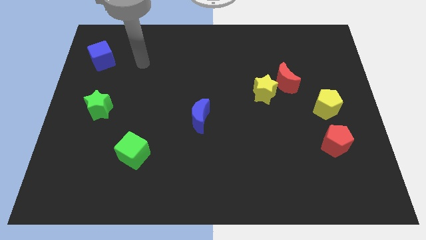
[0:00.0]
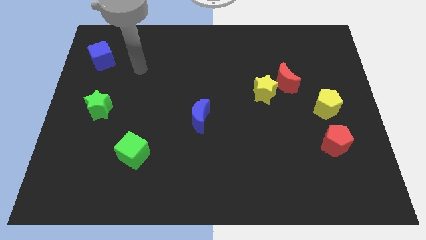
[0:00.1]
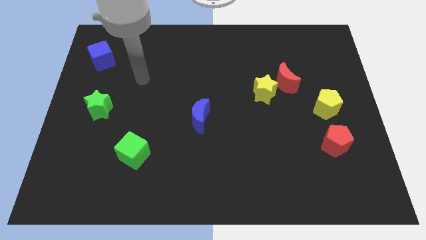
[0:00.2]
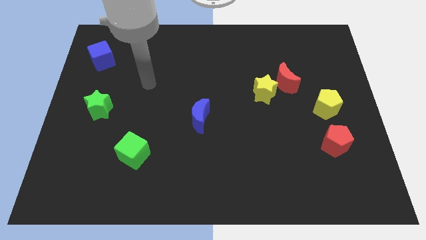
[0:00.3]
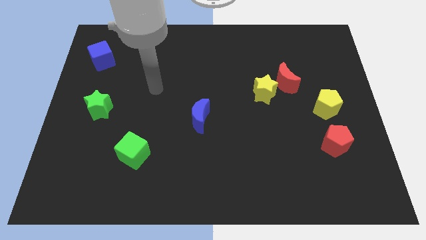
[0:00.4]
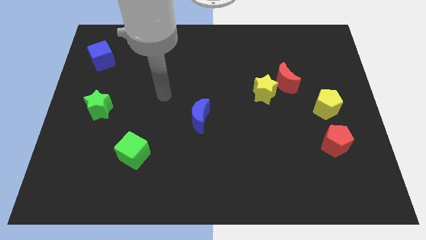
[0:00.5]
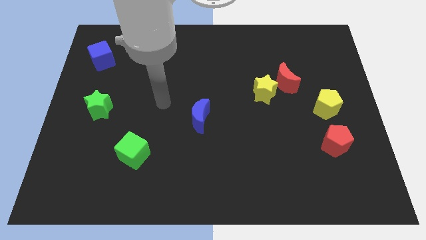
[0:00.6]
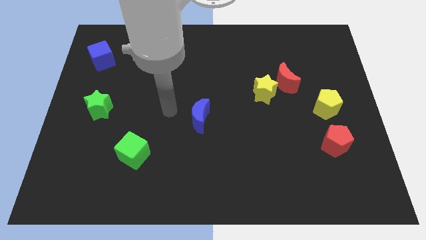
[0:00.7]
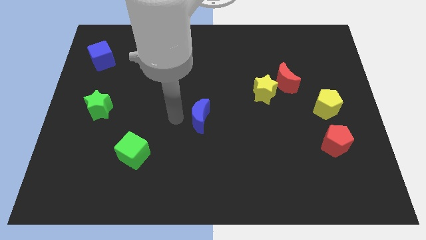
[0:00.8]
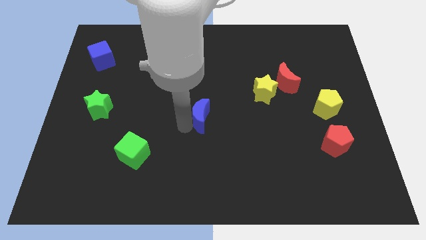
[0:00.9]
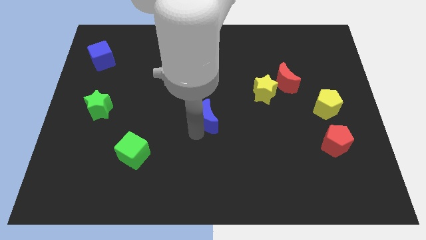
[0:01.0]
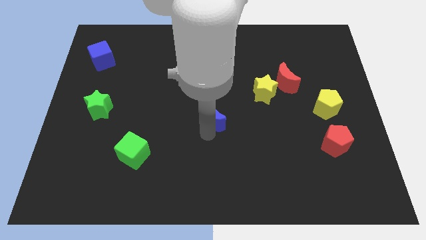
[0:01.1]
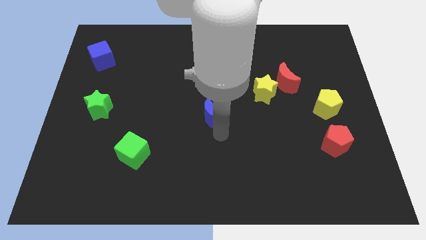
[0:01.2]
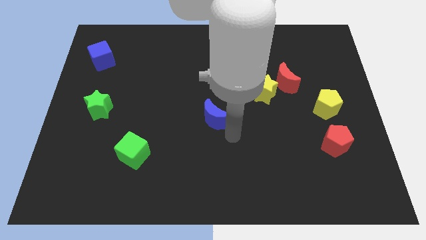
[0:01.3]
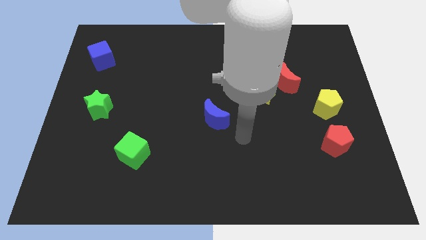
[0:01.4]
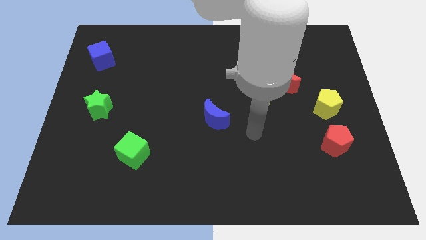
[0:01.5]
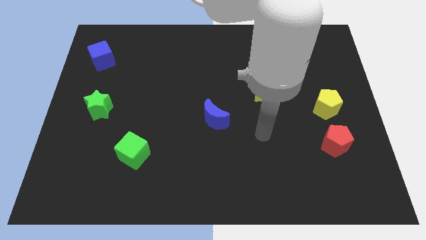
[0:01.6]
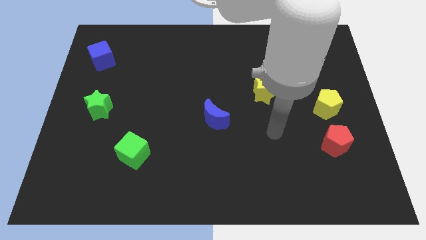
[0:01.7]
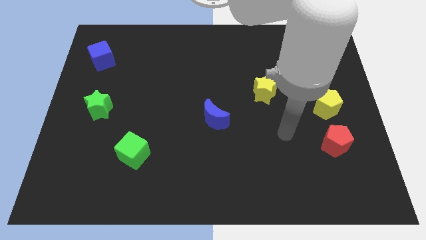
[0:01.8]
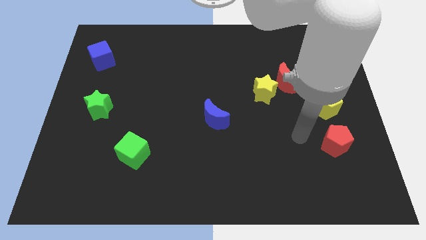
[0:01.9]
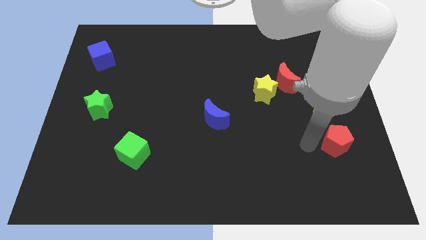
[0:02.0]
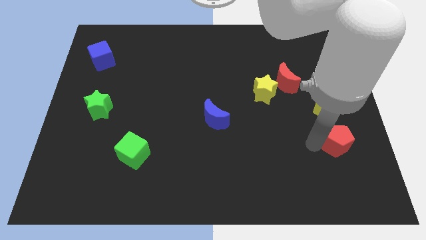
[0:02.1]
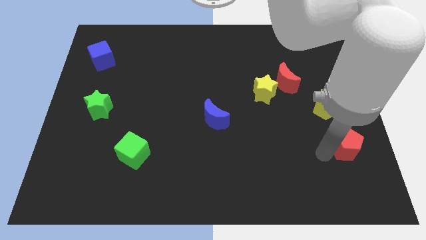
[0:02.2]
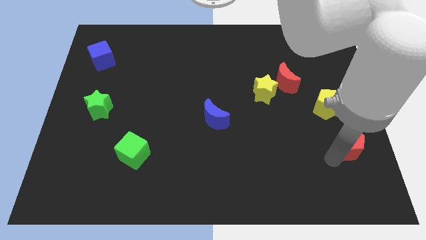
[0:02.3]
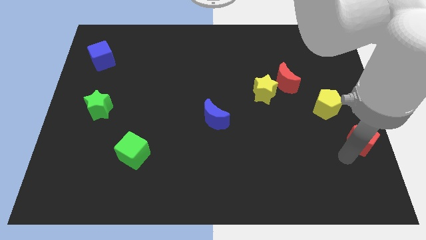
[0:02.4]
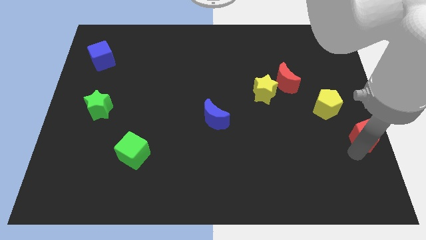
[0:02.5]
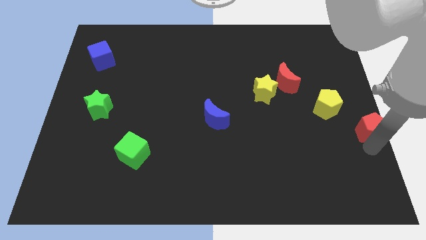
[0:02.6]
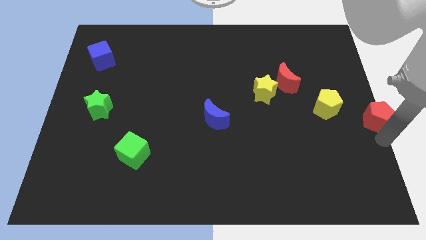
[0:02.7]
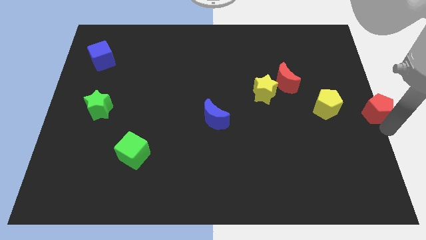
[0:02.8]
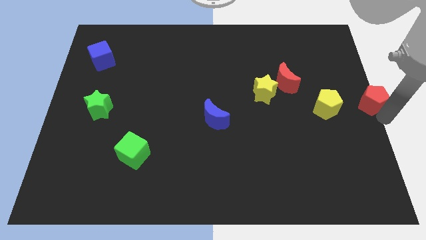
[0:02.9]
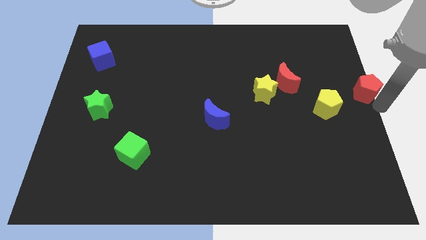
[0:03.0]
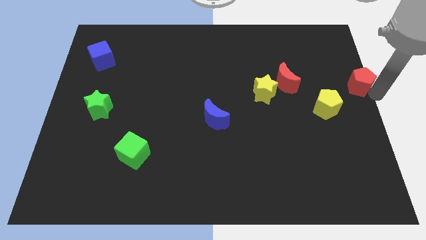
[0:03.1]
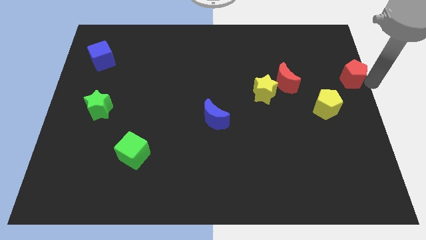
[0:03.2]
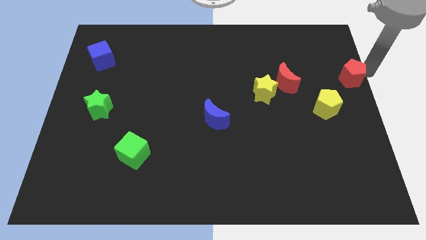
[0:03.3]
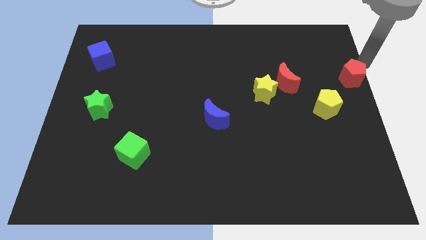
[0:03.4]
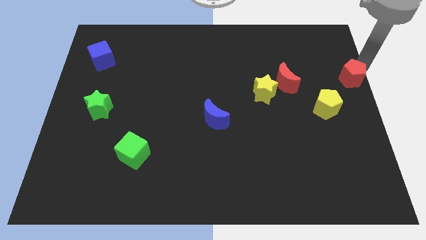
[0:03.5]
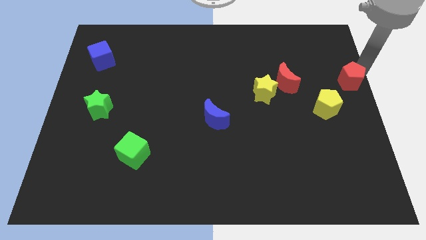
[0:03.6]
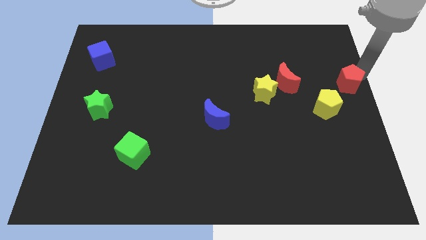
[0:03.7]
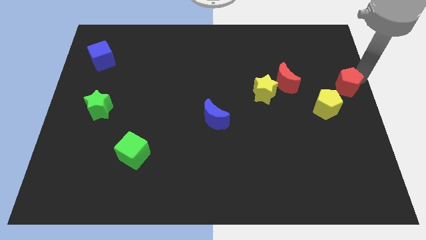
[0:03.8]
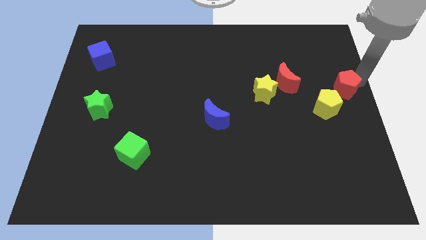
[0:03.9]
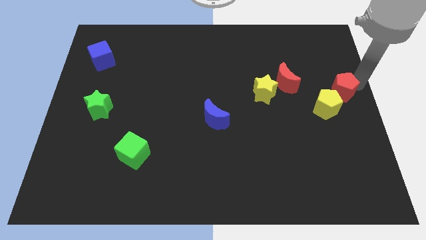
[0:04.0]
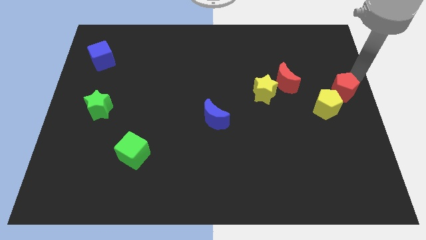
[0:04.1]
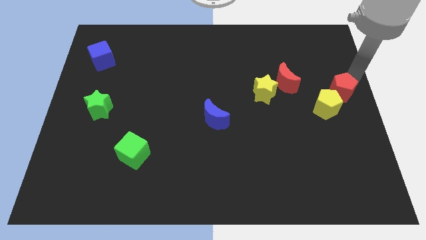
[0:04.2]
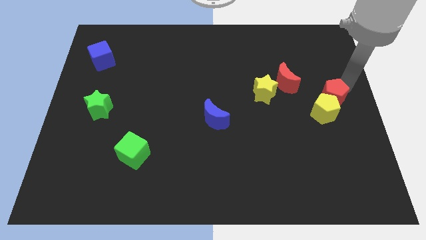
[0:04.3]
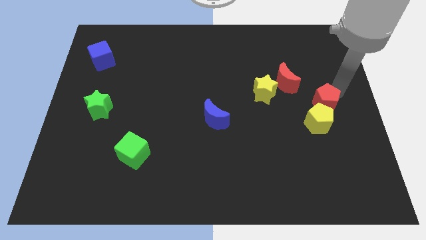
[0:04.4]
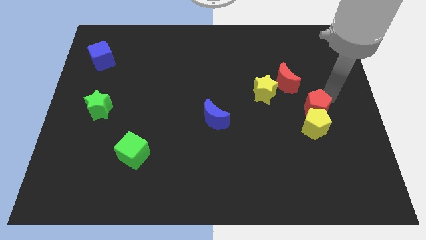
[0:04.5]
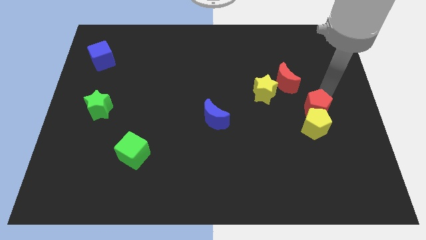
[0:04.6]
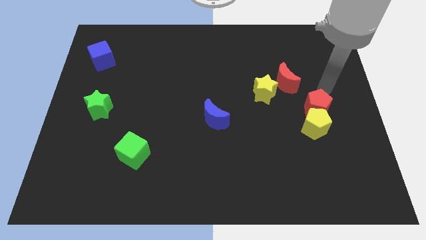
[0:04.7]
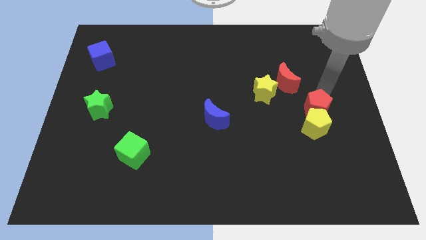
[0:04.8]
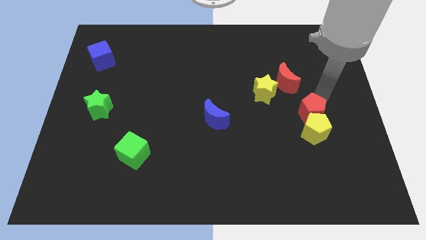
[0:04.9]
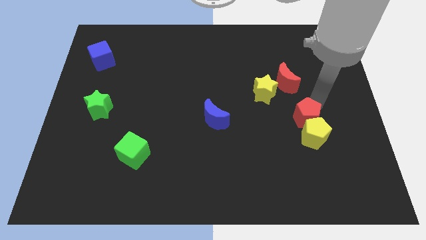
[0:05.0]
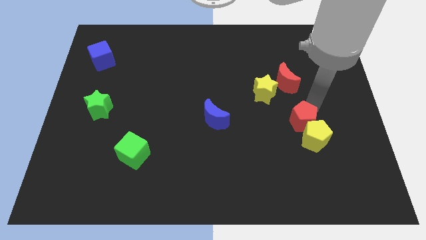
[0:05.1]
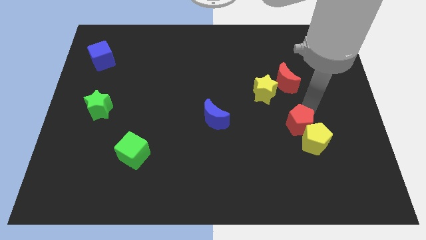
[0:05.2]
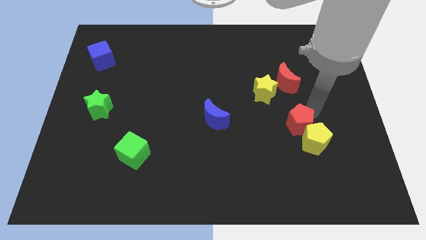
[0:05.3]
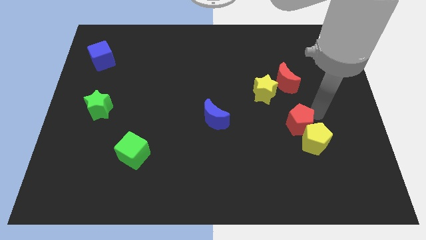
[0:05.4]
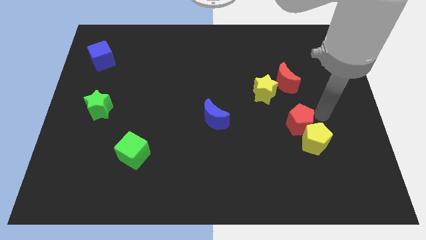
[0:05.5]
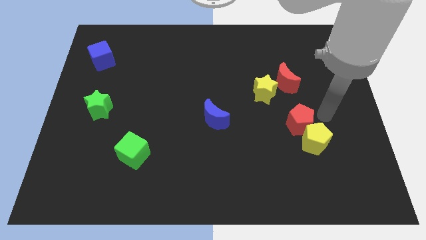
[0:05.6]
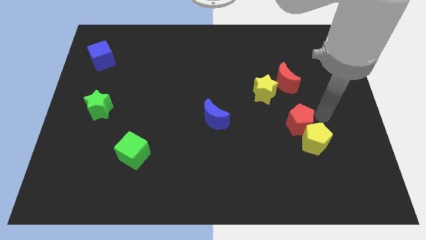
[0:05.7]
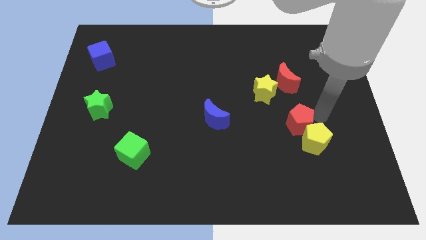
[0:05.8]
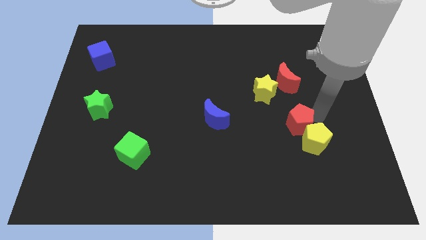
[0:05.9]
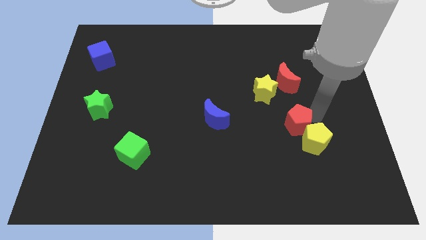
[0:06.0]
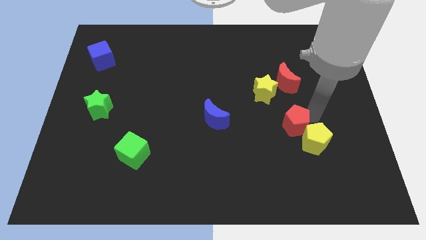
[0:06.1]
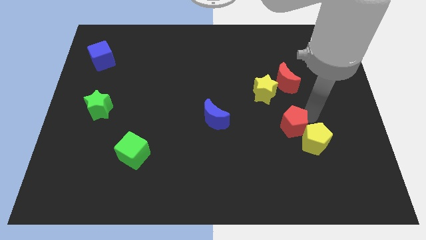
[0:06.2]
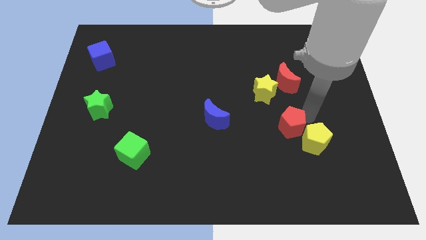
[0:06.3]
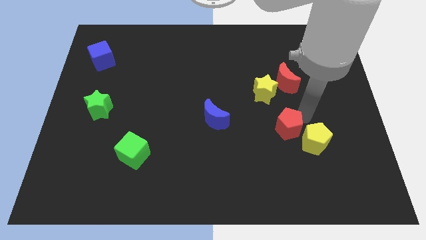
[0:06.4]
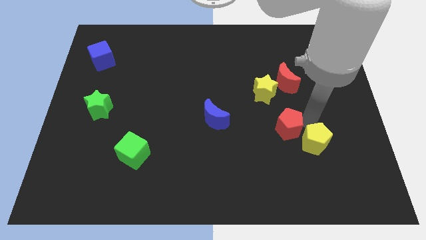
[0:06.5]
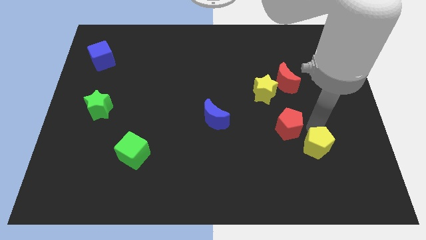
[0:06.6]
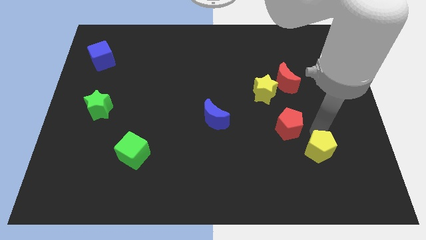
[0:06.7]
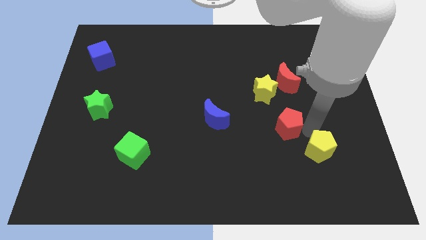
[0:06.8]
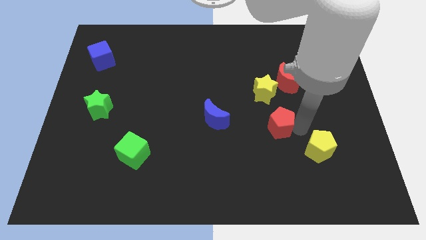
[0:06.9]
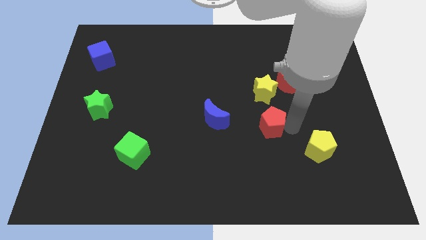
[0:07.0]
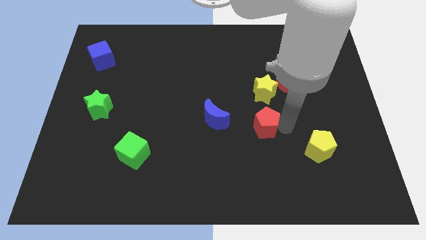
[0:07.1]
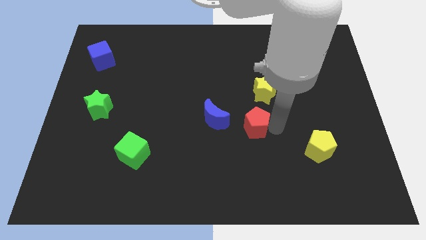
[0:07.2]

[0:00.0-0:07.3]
slide the red pentagon to the middle of the board
